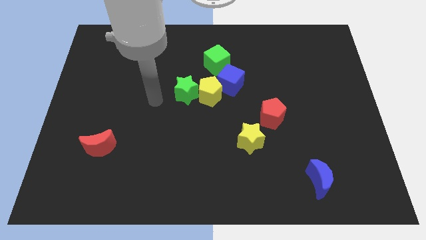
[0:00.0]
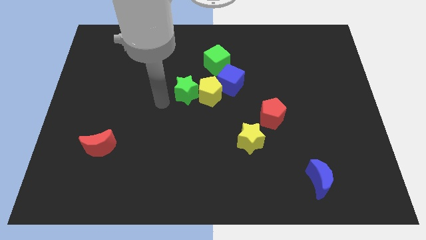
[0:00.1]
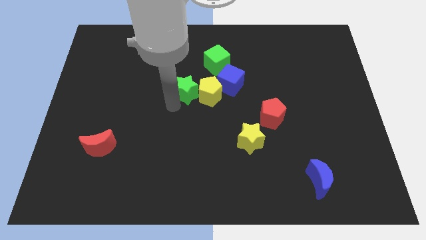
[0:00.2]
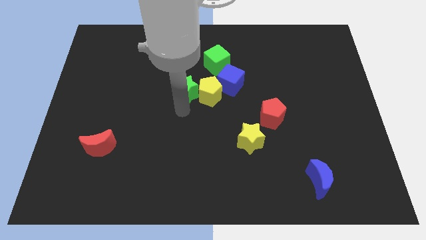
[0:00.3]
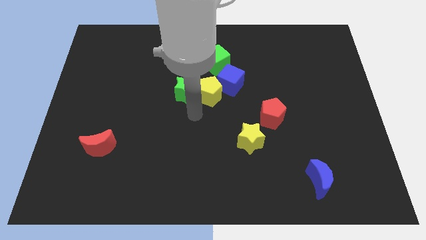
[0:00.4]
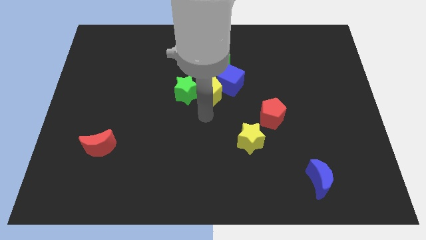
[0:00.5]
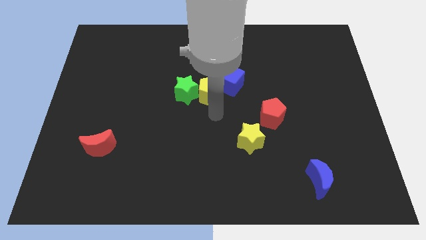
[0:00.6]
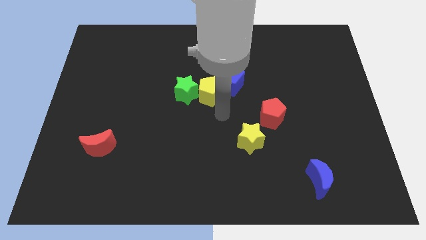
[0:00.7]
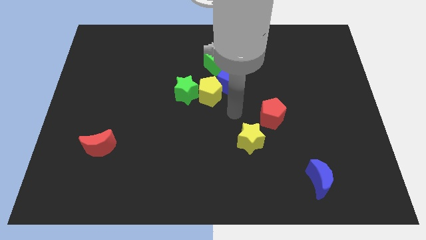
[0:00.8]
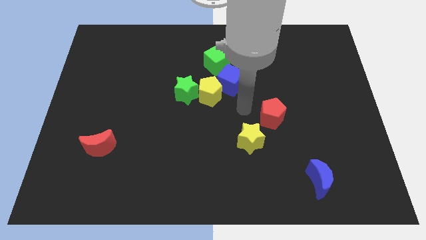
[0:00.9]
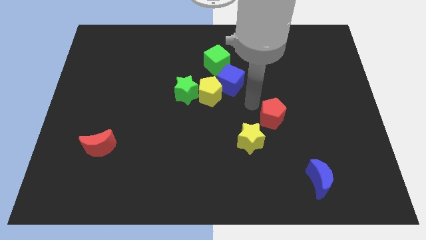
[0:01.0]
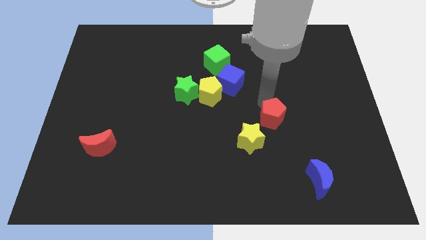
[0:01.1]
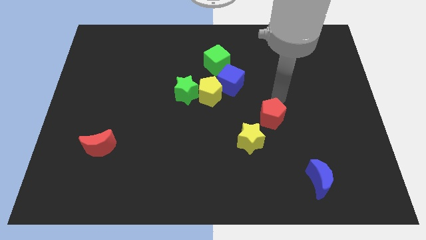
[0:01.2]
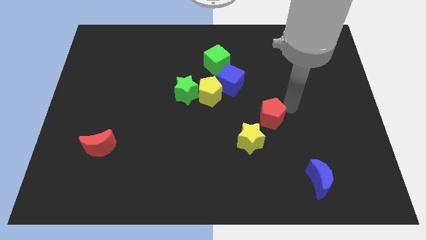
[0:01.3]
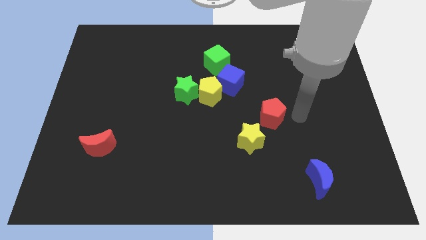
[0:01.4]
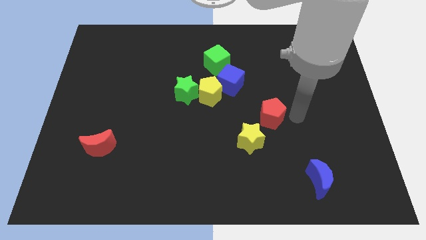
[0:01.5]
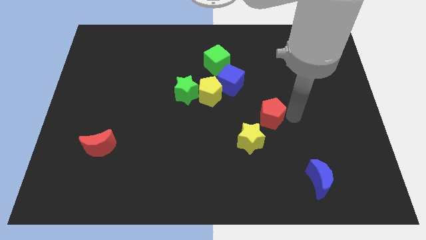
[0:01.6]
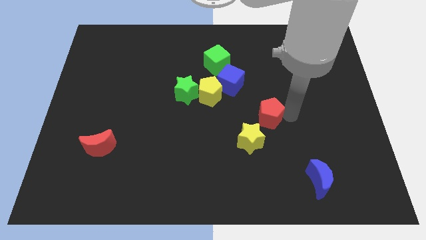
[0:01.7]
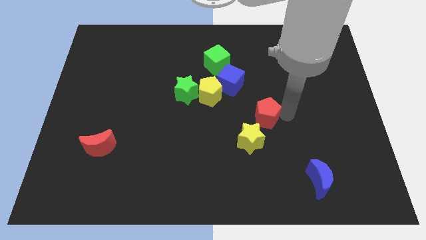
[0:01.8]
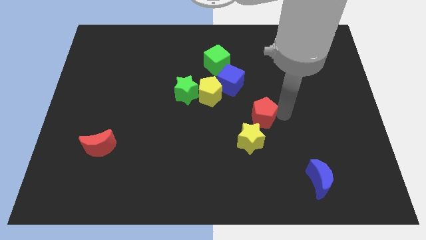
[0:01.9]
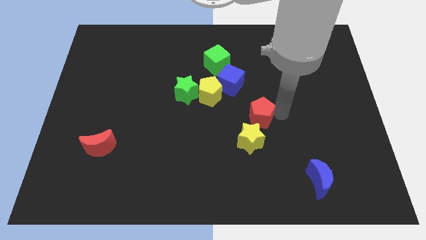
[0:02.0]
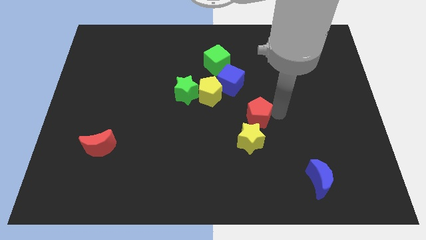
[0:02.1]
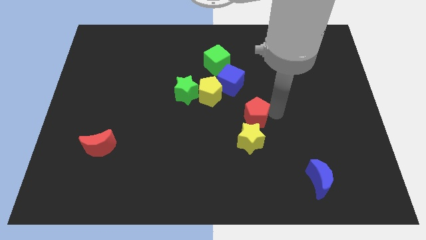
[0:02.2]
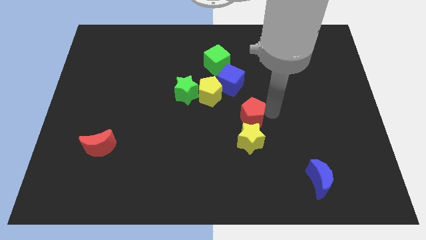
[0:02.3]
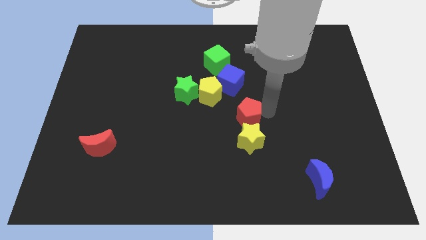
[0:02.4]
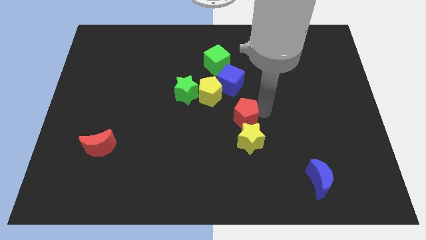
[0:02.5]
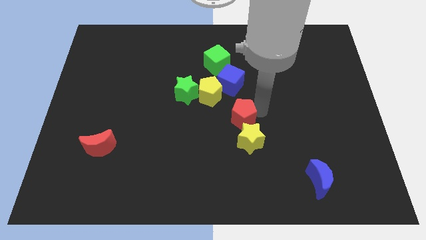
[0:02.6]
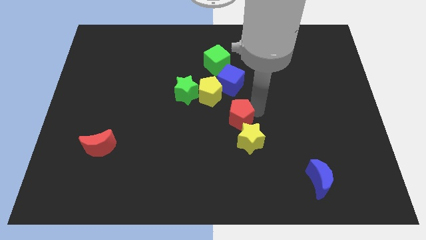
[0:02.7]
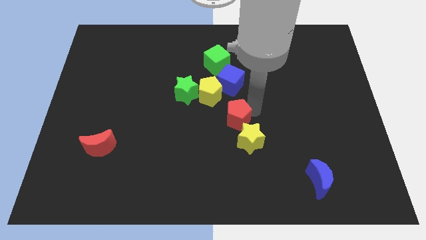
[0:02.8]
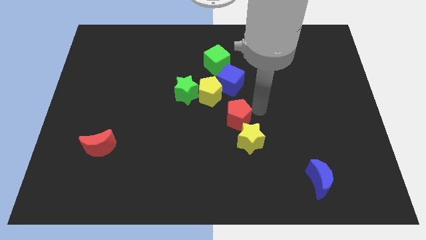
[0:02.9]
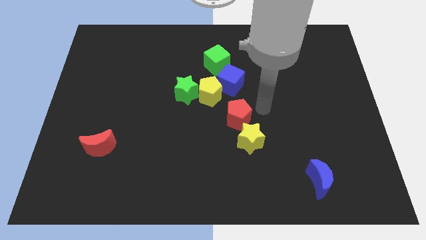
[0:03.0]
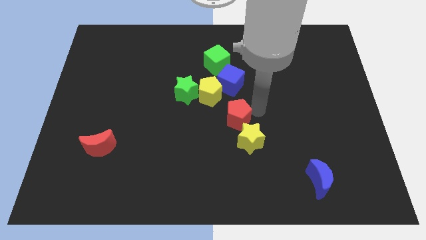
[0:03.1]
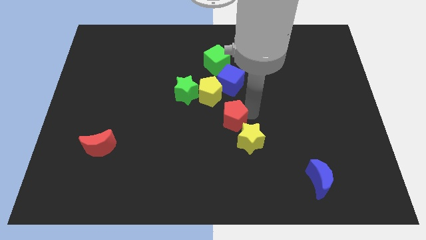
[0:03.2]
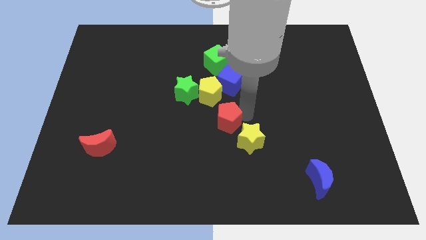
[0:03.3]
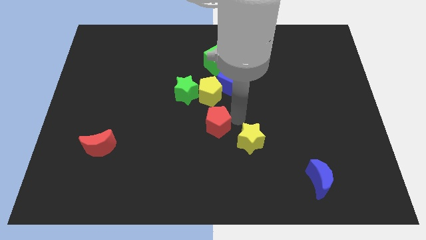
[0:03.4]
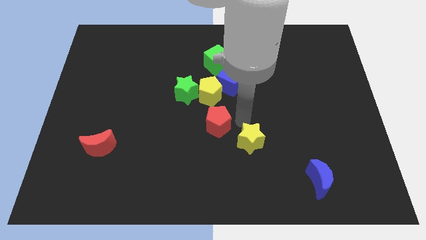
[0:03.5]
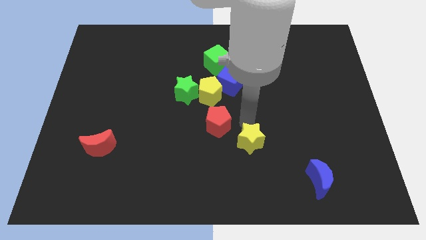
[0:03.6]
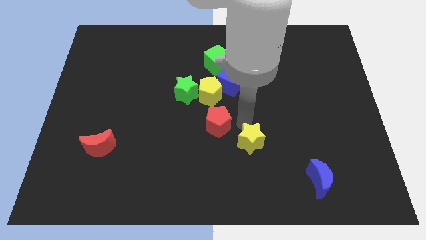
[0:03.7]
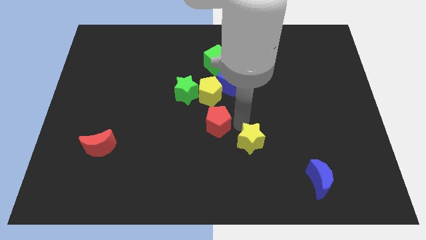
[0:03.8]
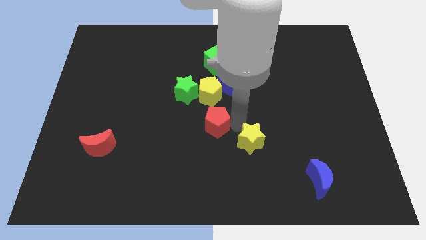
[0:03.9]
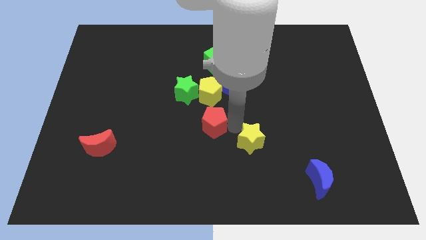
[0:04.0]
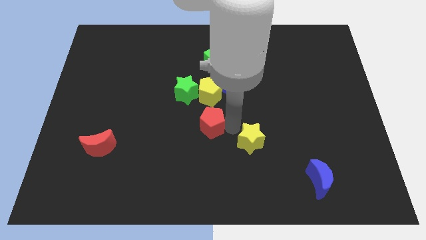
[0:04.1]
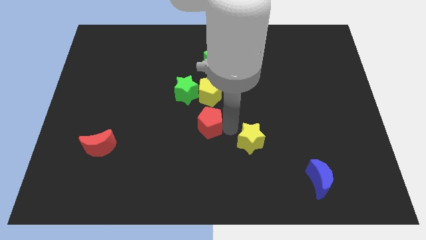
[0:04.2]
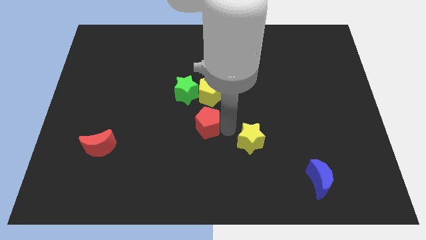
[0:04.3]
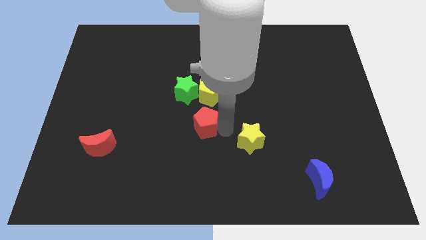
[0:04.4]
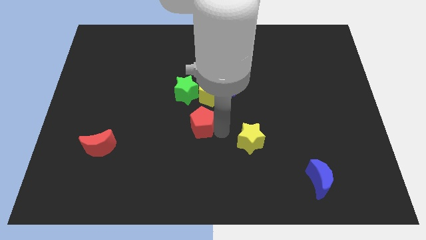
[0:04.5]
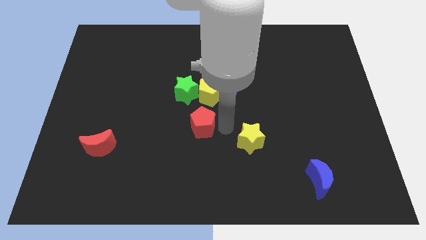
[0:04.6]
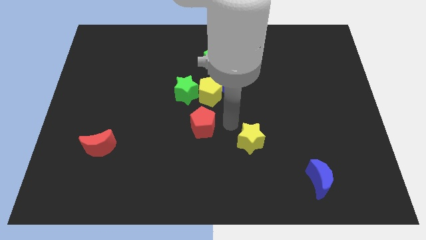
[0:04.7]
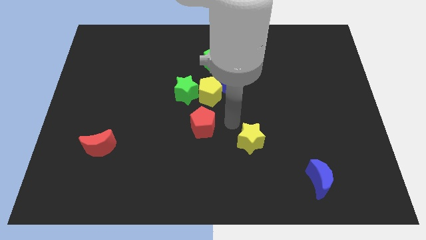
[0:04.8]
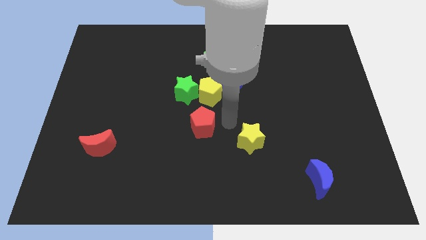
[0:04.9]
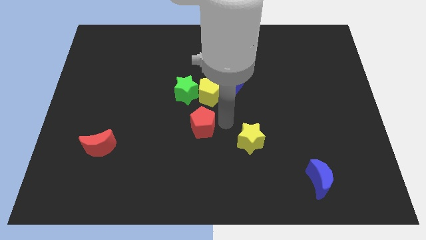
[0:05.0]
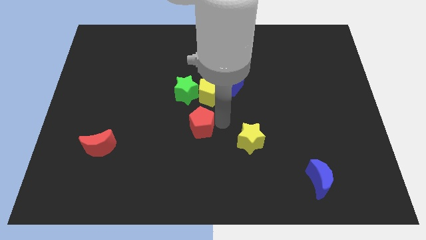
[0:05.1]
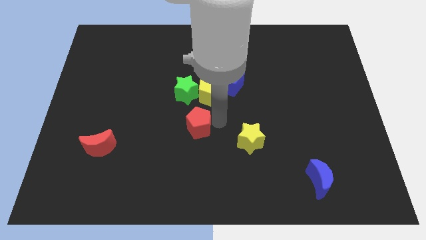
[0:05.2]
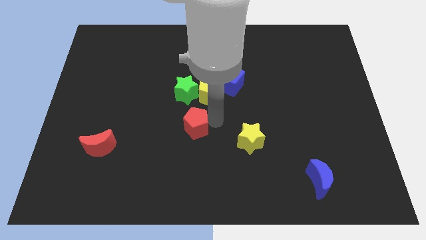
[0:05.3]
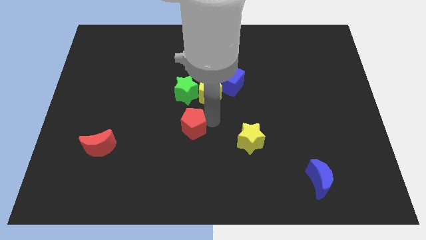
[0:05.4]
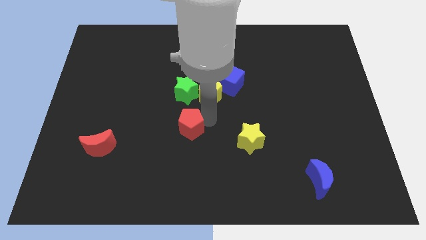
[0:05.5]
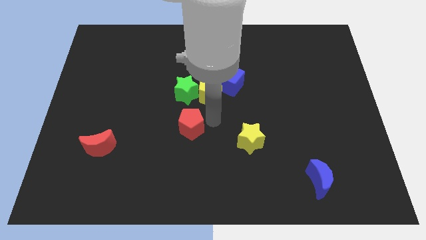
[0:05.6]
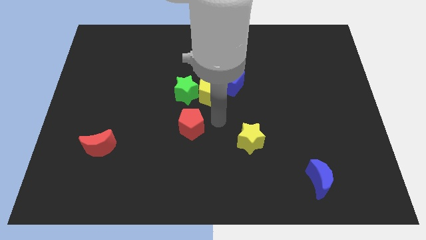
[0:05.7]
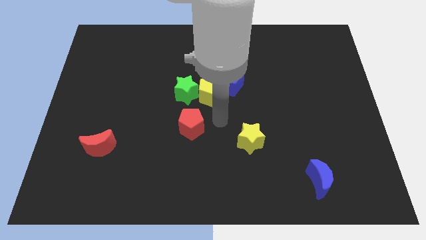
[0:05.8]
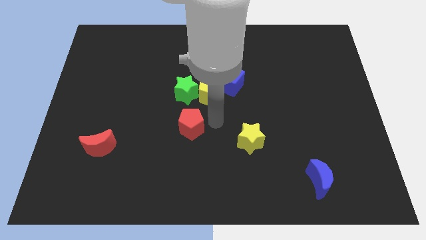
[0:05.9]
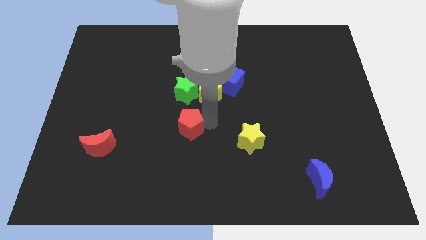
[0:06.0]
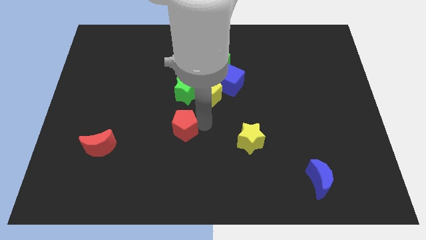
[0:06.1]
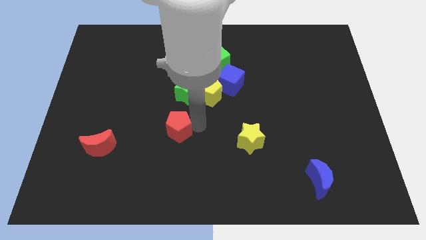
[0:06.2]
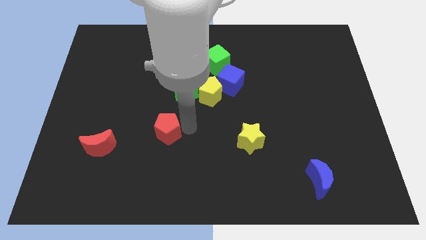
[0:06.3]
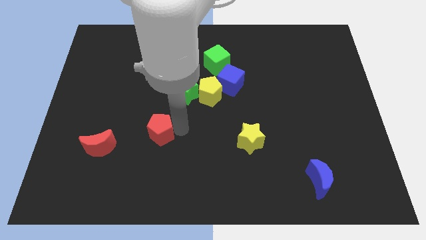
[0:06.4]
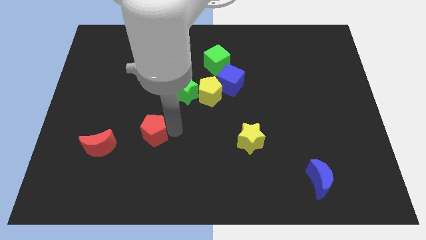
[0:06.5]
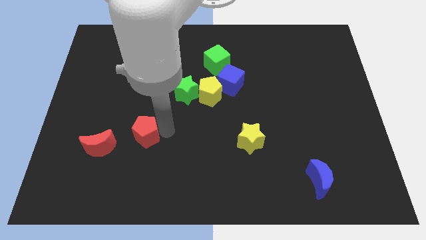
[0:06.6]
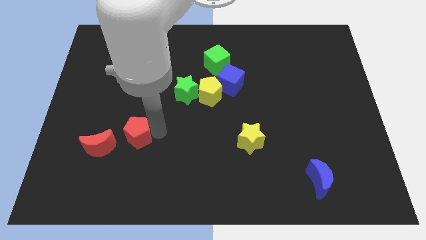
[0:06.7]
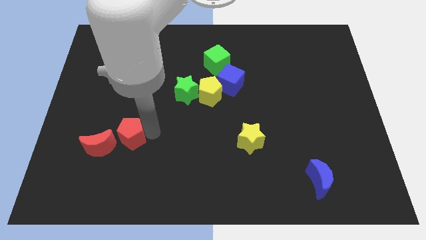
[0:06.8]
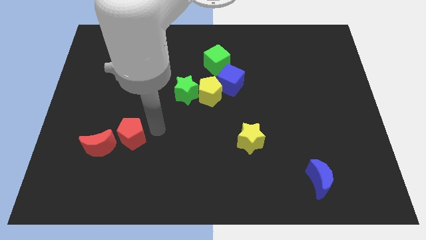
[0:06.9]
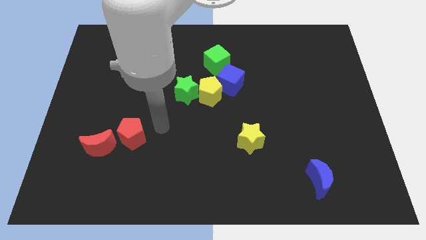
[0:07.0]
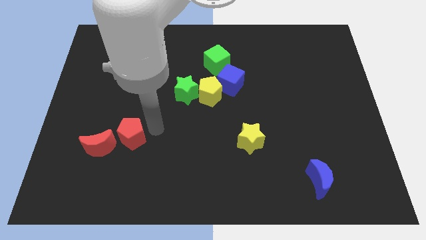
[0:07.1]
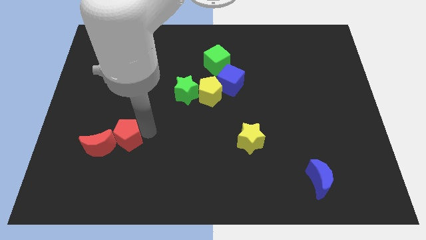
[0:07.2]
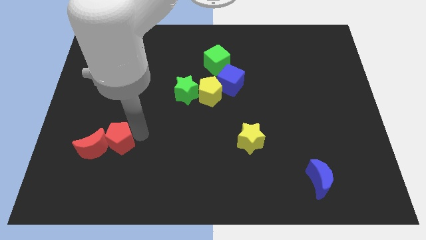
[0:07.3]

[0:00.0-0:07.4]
put the red pentagon next to the red moon

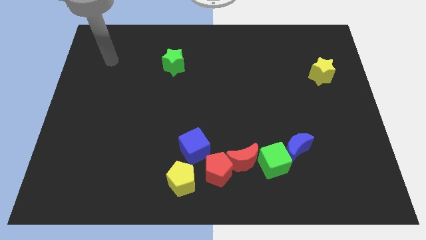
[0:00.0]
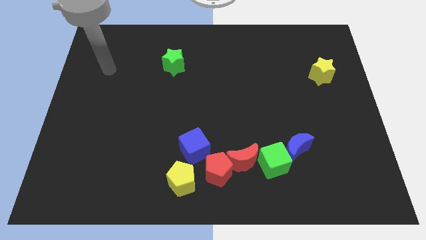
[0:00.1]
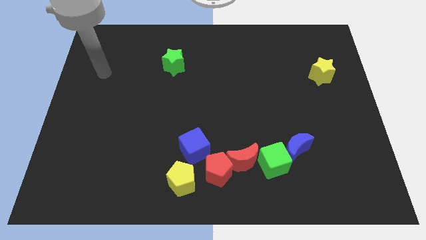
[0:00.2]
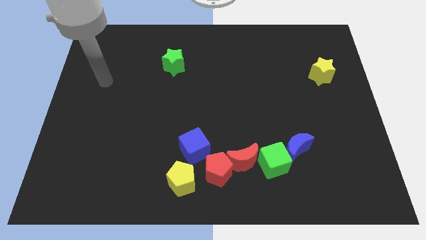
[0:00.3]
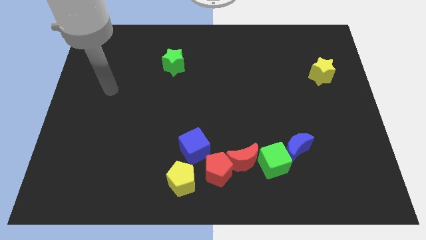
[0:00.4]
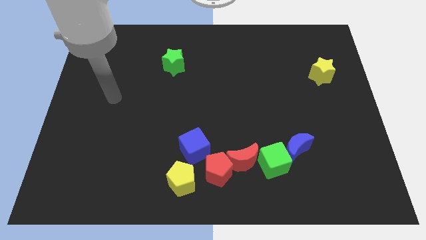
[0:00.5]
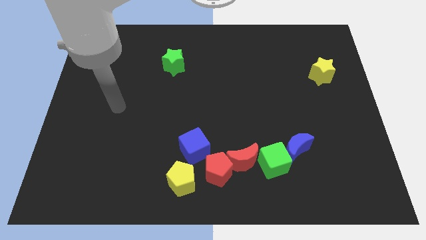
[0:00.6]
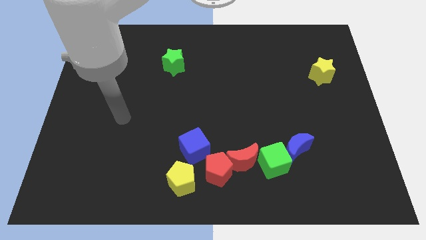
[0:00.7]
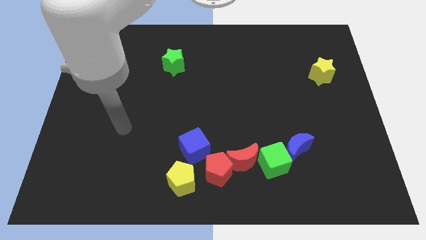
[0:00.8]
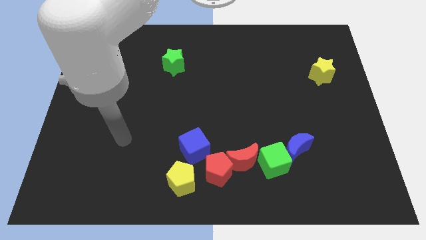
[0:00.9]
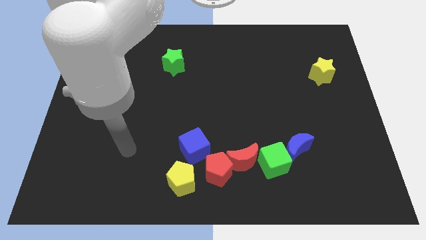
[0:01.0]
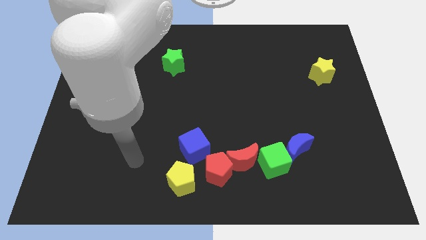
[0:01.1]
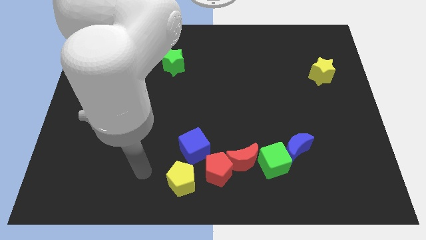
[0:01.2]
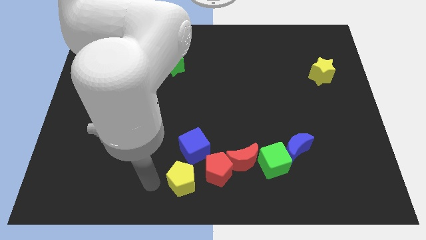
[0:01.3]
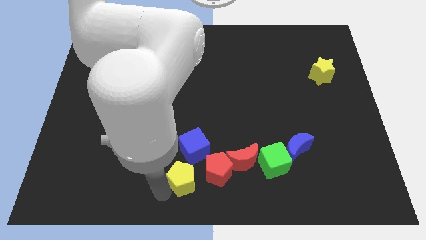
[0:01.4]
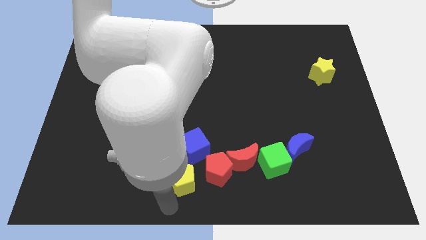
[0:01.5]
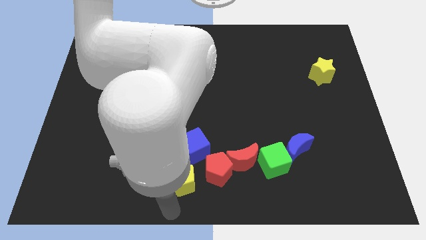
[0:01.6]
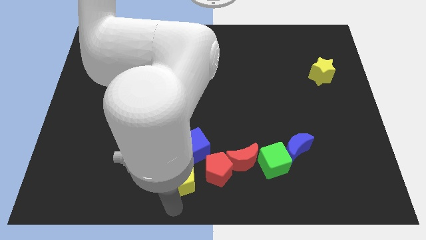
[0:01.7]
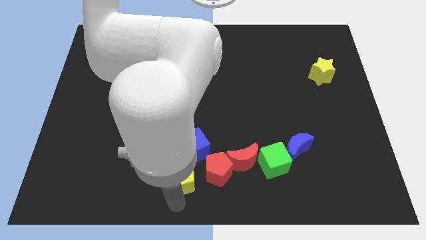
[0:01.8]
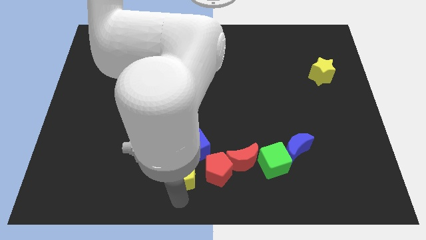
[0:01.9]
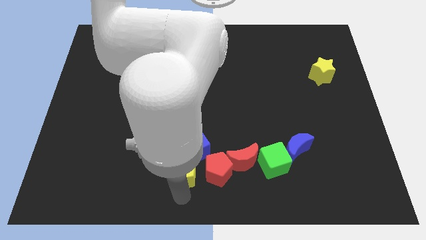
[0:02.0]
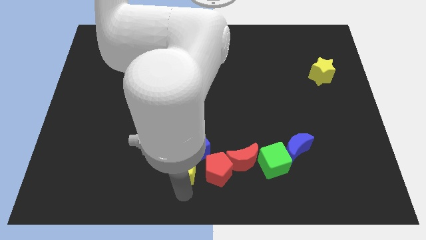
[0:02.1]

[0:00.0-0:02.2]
put the yellow pentagon next to the blue cube
